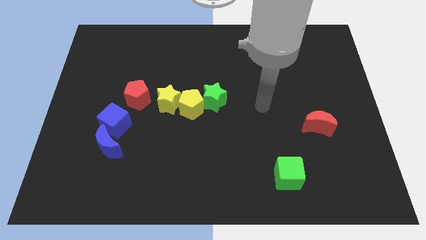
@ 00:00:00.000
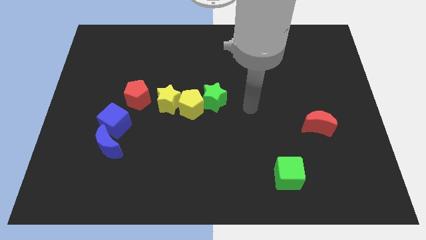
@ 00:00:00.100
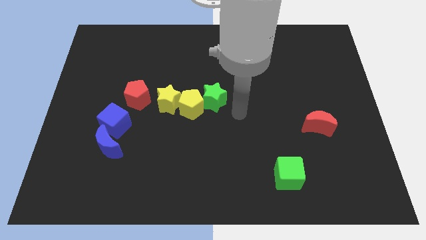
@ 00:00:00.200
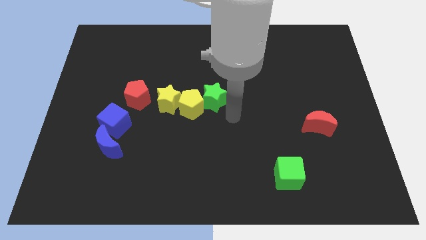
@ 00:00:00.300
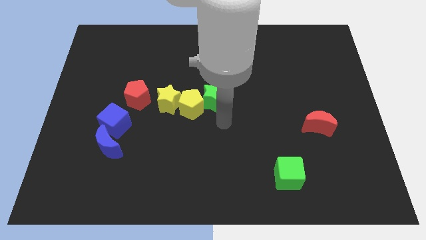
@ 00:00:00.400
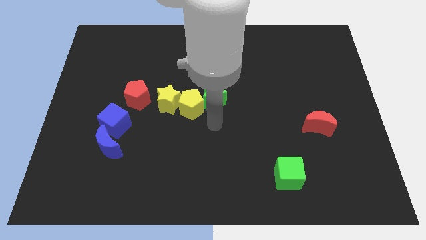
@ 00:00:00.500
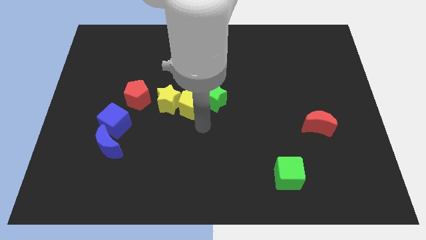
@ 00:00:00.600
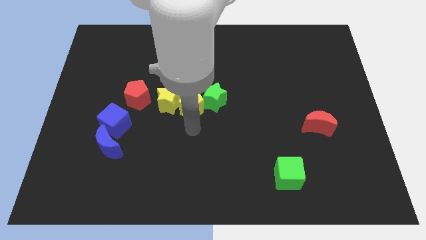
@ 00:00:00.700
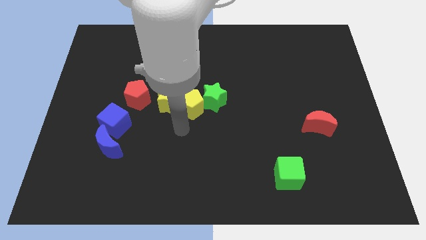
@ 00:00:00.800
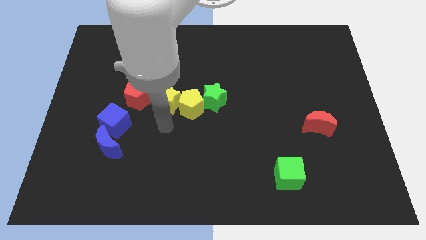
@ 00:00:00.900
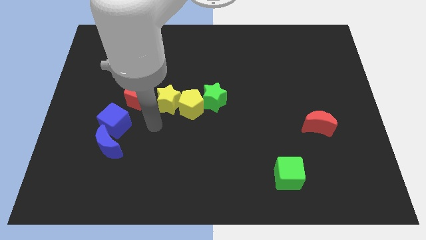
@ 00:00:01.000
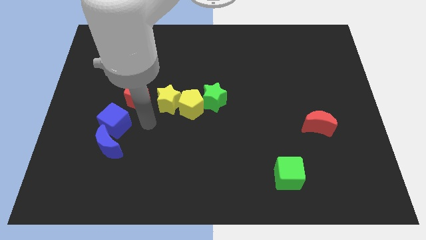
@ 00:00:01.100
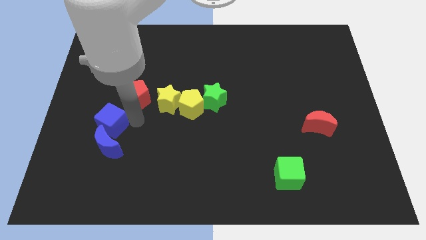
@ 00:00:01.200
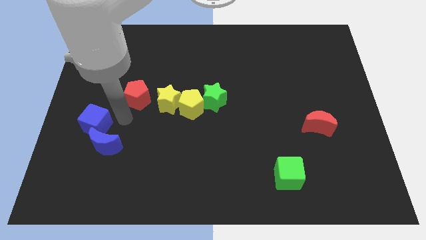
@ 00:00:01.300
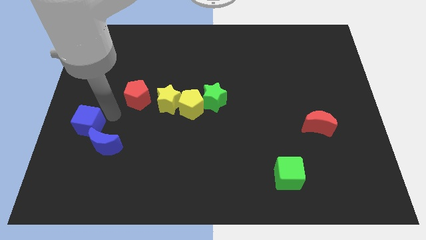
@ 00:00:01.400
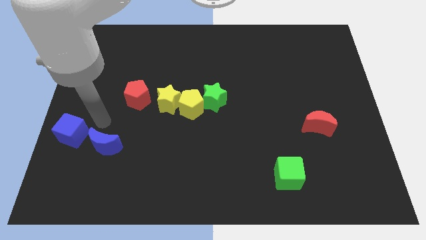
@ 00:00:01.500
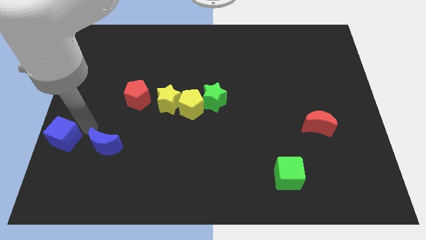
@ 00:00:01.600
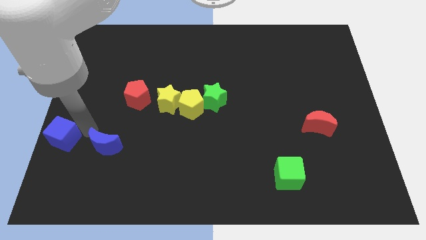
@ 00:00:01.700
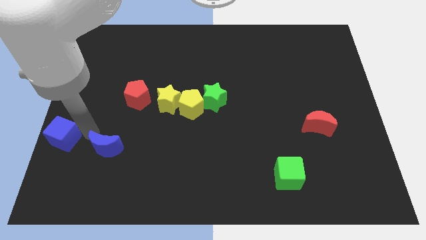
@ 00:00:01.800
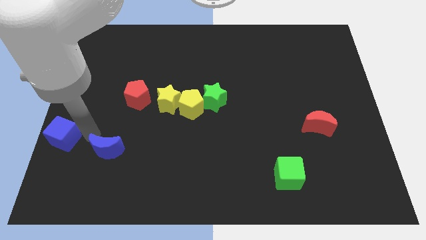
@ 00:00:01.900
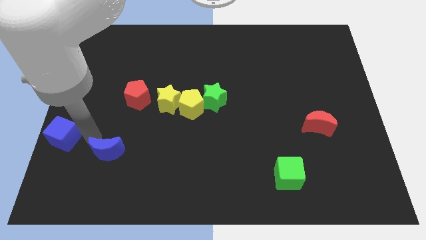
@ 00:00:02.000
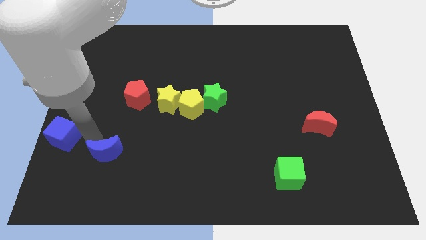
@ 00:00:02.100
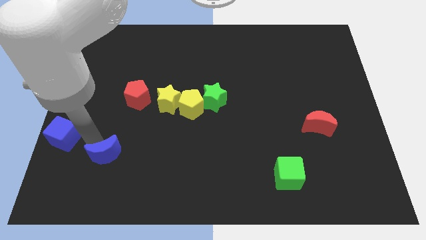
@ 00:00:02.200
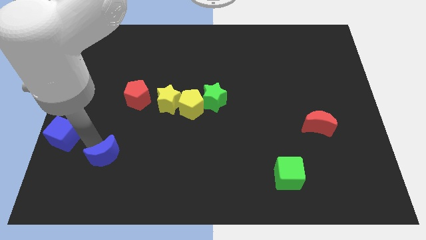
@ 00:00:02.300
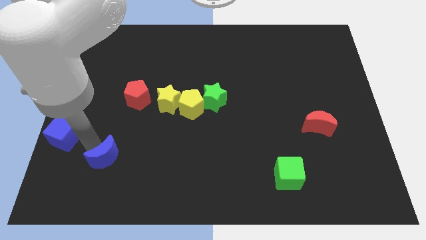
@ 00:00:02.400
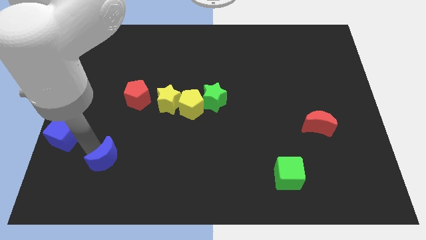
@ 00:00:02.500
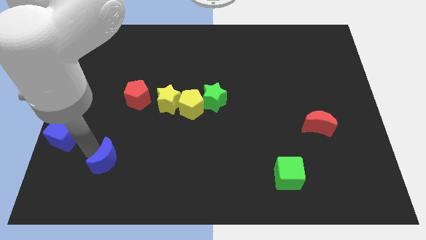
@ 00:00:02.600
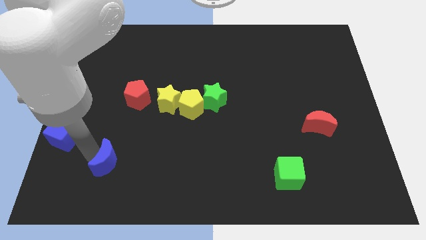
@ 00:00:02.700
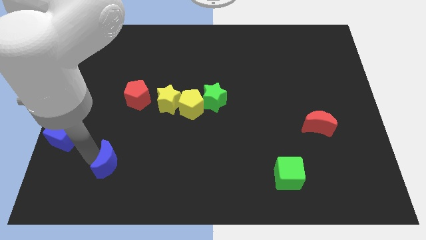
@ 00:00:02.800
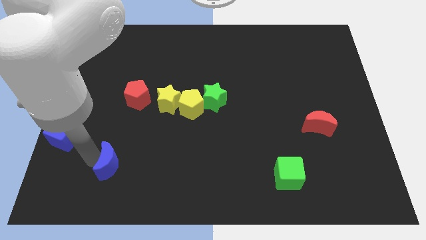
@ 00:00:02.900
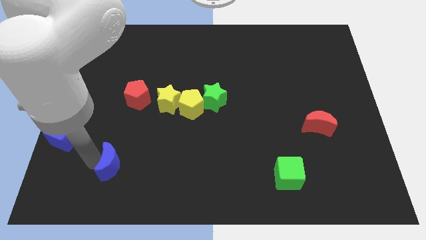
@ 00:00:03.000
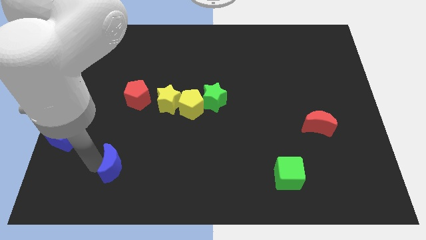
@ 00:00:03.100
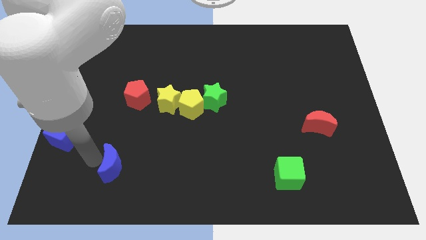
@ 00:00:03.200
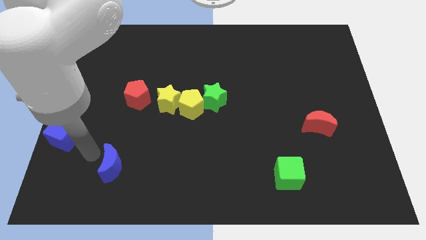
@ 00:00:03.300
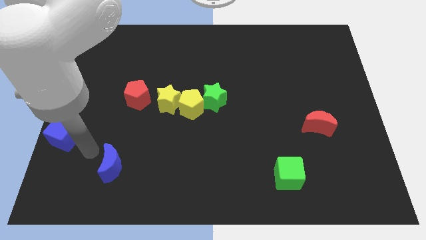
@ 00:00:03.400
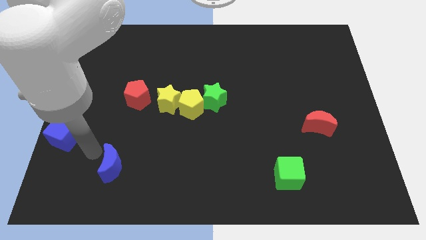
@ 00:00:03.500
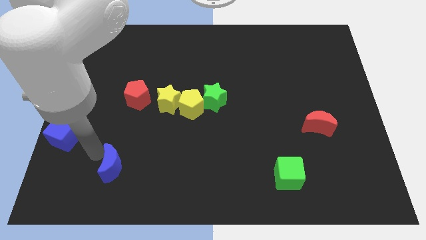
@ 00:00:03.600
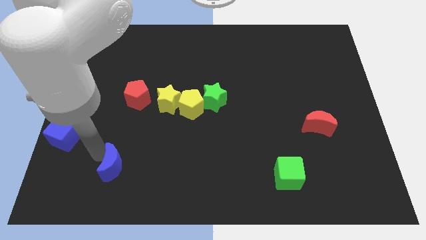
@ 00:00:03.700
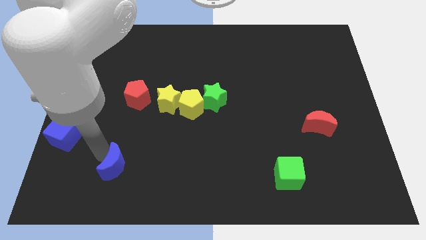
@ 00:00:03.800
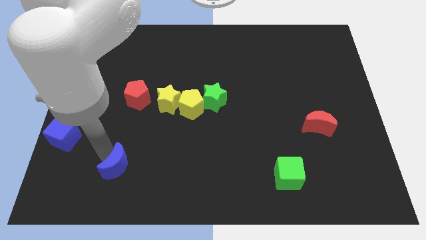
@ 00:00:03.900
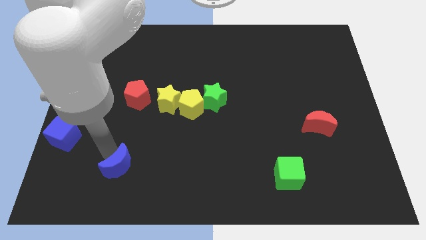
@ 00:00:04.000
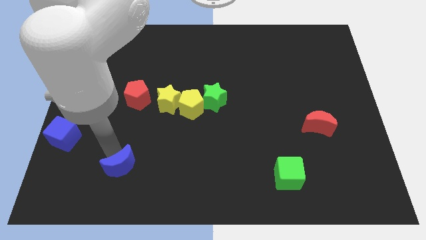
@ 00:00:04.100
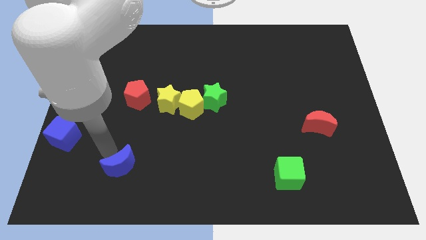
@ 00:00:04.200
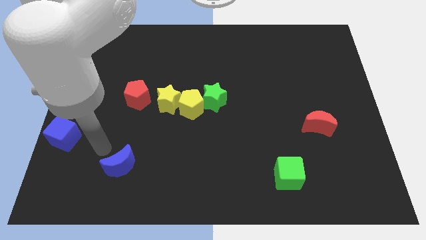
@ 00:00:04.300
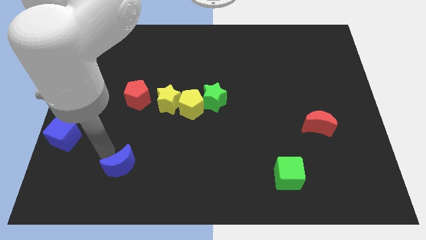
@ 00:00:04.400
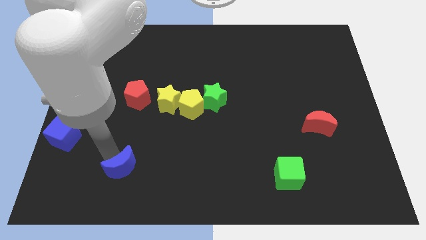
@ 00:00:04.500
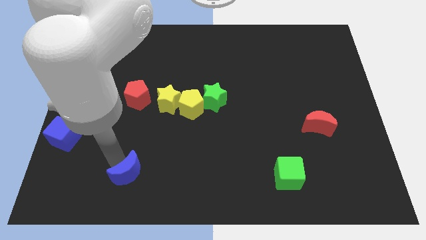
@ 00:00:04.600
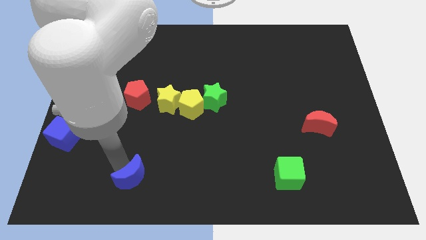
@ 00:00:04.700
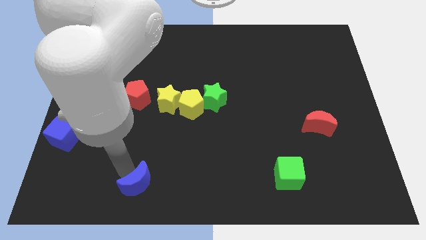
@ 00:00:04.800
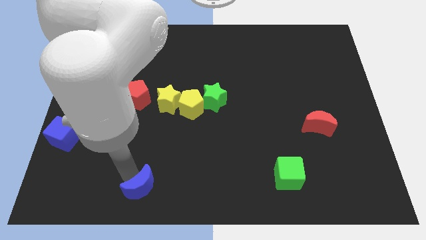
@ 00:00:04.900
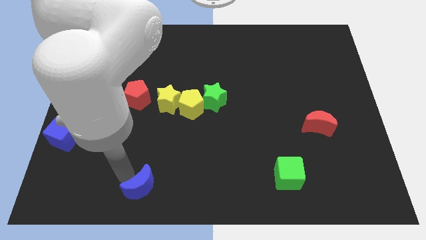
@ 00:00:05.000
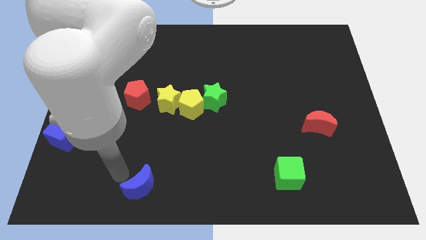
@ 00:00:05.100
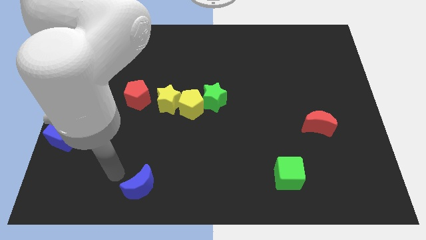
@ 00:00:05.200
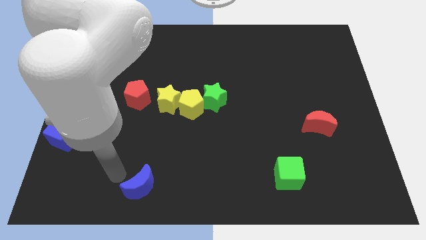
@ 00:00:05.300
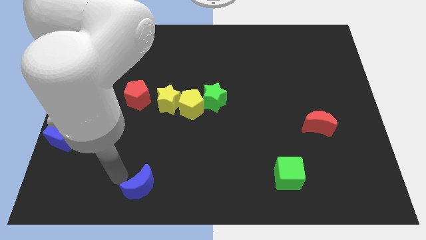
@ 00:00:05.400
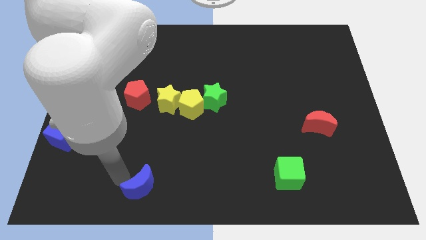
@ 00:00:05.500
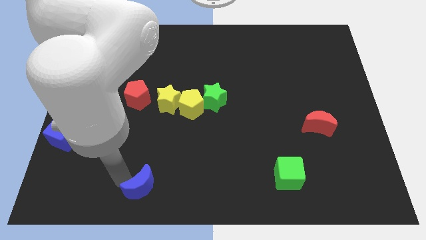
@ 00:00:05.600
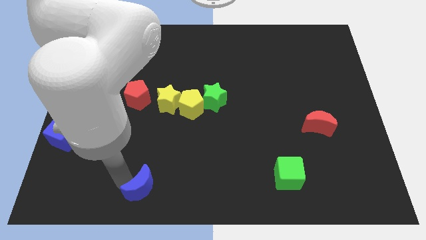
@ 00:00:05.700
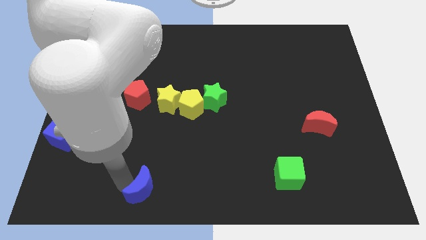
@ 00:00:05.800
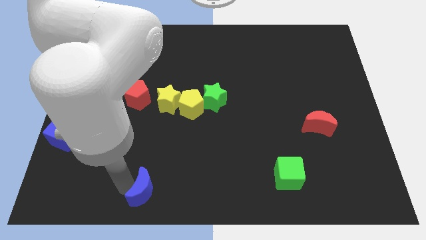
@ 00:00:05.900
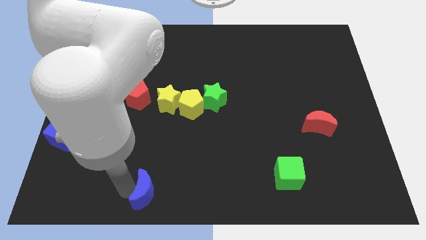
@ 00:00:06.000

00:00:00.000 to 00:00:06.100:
move the blue moon to the bottom

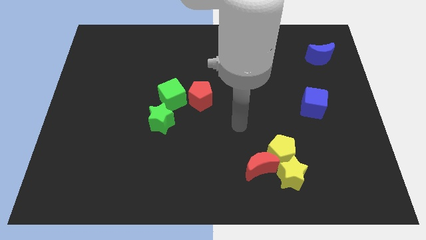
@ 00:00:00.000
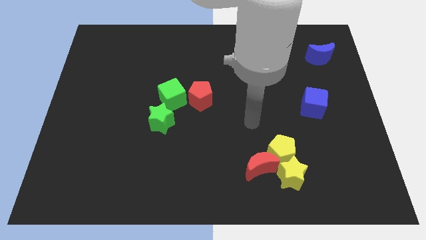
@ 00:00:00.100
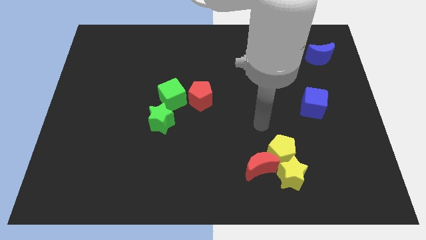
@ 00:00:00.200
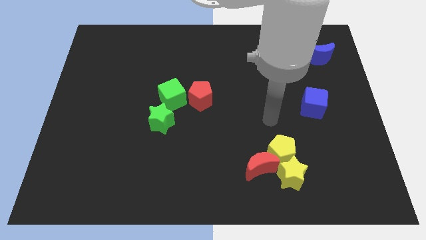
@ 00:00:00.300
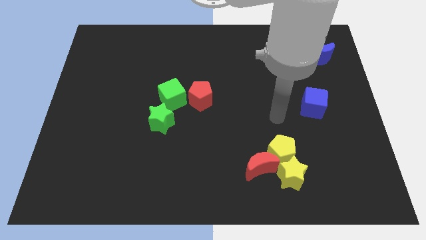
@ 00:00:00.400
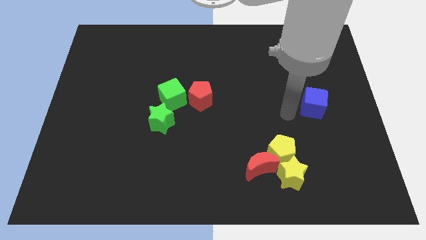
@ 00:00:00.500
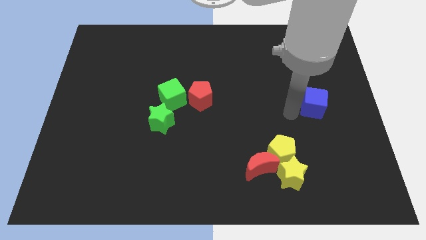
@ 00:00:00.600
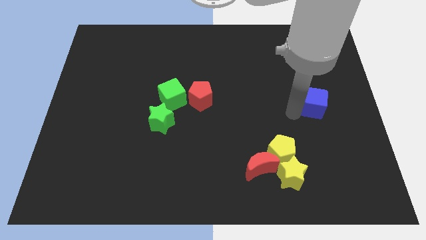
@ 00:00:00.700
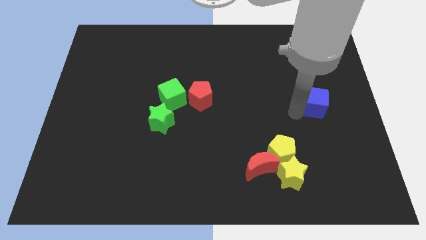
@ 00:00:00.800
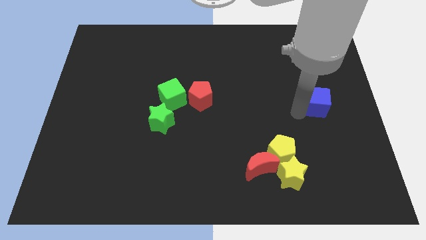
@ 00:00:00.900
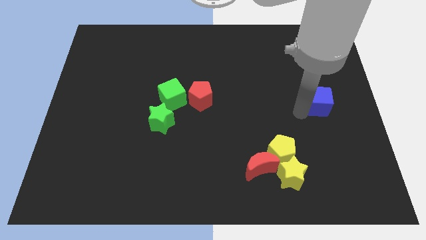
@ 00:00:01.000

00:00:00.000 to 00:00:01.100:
put the blue cube to the center right
